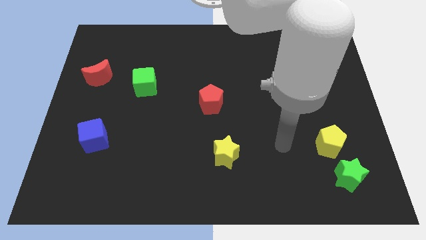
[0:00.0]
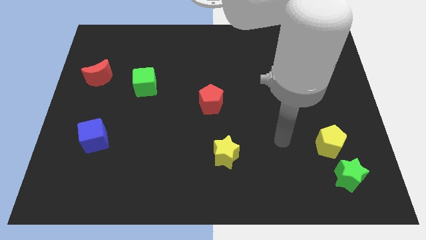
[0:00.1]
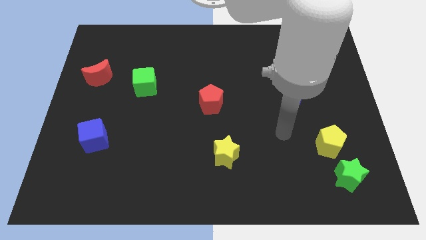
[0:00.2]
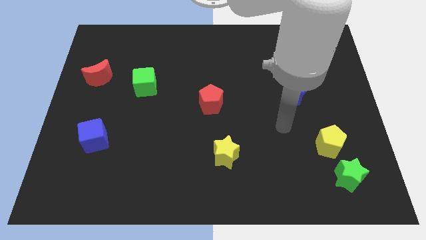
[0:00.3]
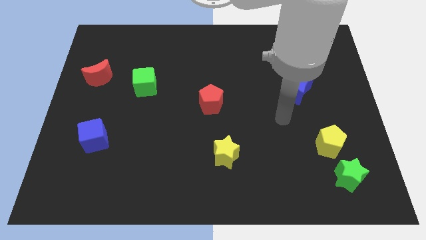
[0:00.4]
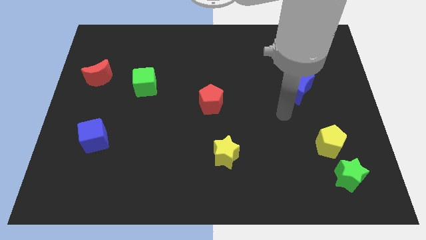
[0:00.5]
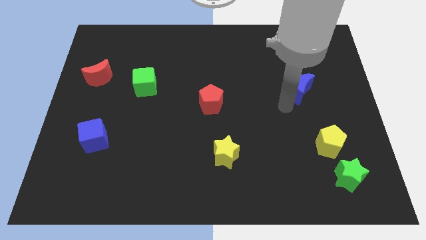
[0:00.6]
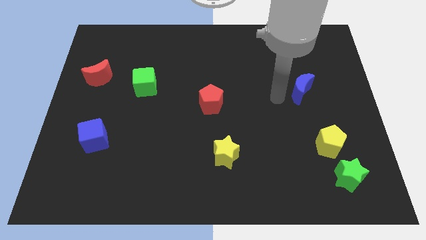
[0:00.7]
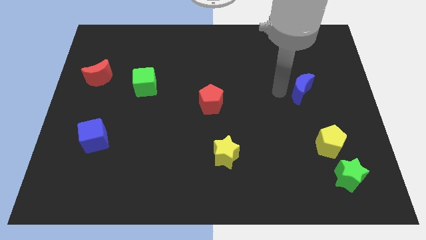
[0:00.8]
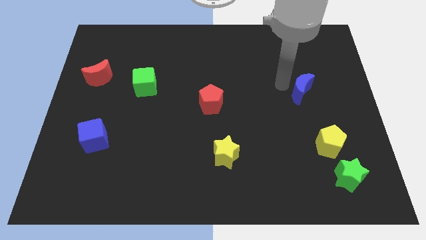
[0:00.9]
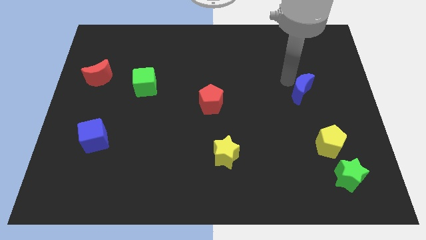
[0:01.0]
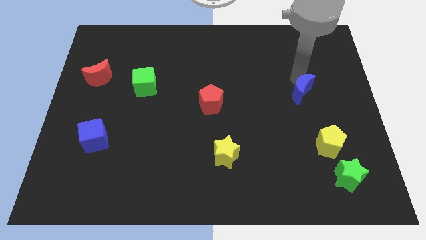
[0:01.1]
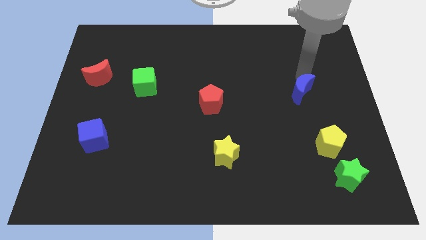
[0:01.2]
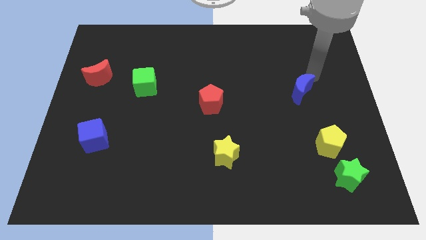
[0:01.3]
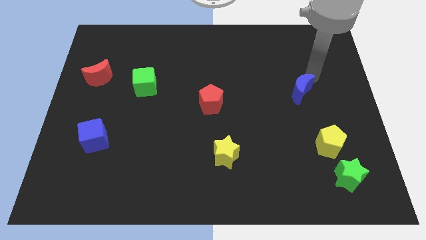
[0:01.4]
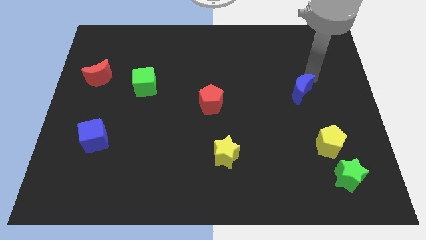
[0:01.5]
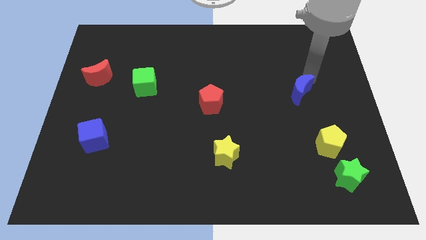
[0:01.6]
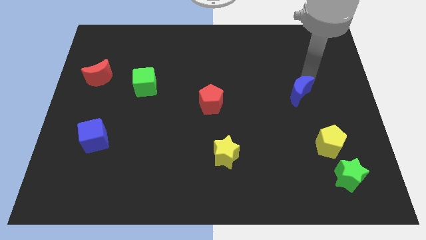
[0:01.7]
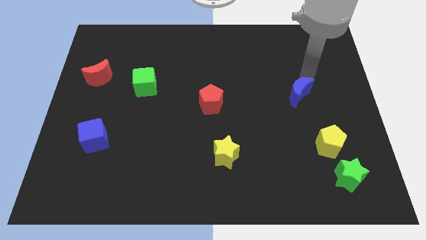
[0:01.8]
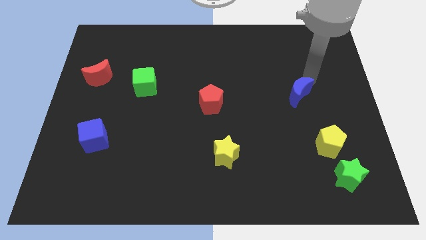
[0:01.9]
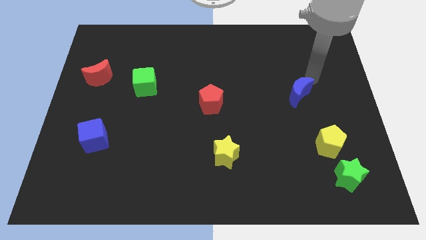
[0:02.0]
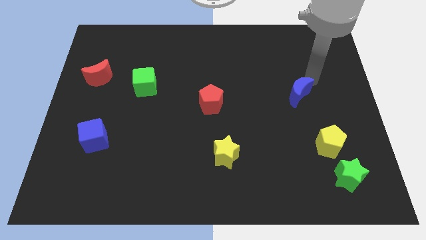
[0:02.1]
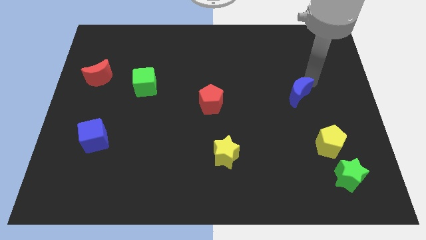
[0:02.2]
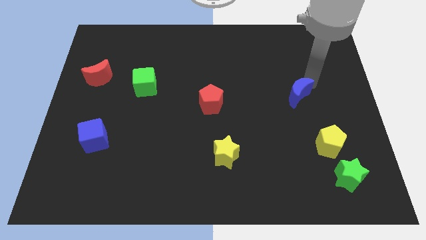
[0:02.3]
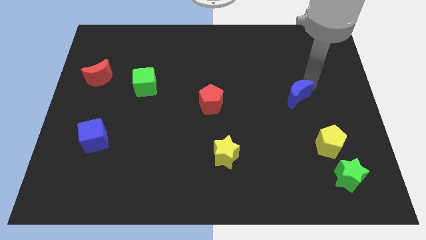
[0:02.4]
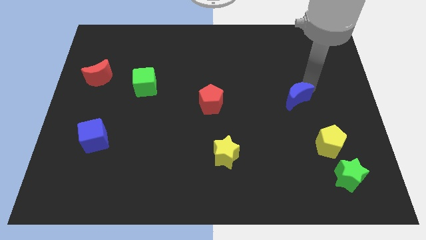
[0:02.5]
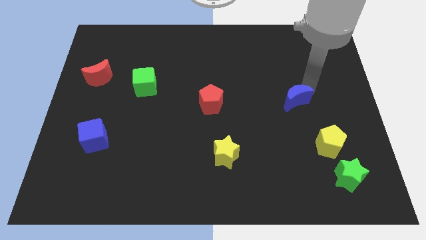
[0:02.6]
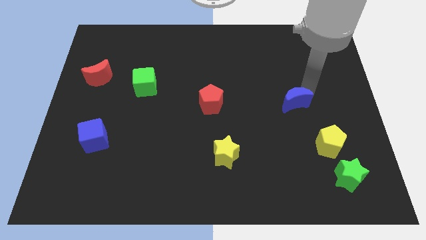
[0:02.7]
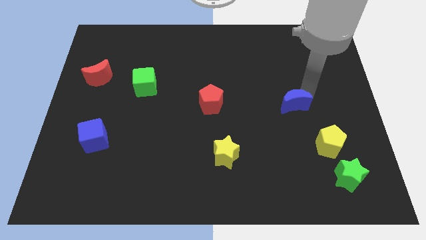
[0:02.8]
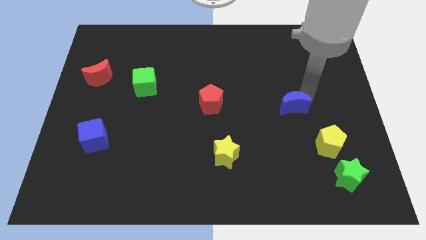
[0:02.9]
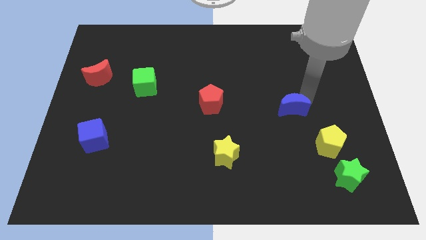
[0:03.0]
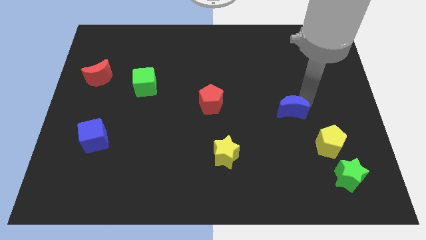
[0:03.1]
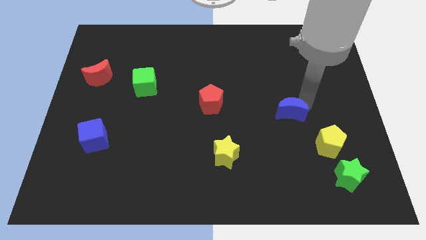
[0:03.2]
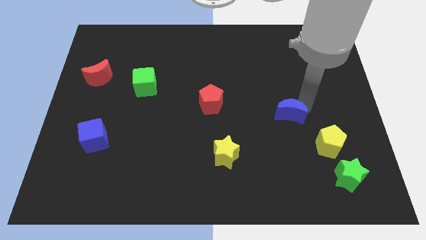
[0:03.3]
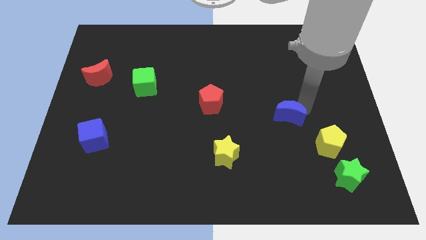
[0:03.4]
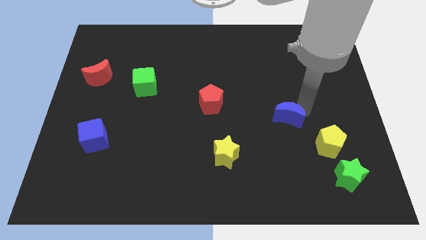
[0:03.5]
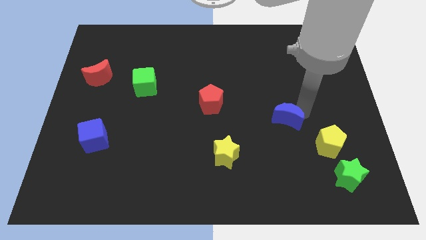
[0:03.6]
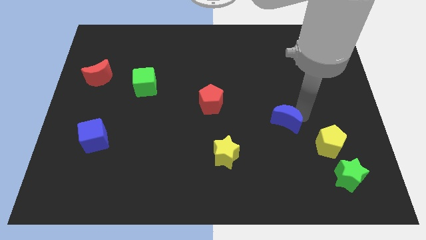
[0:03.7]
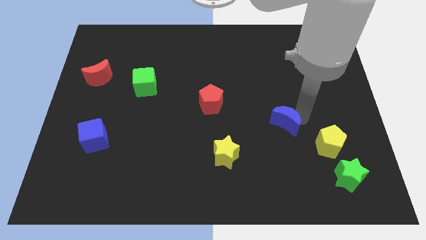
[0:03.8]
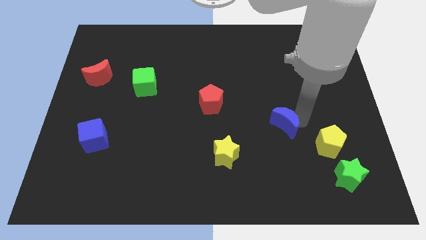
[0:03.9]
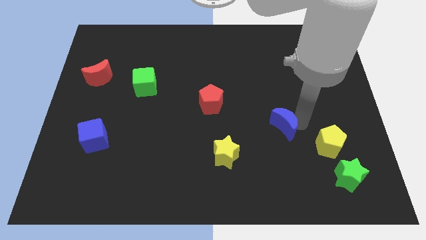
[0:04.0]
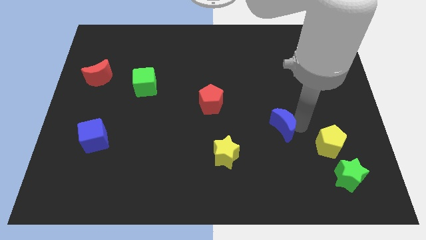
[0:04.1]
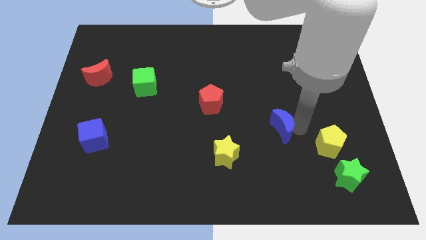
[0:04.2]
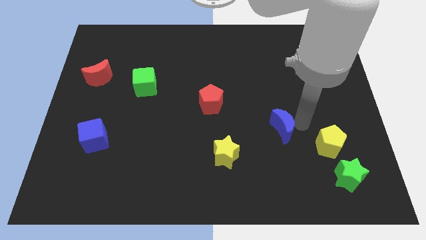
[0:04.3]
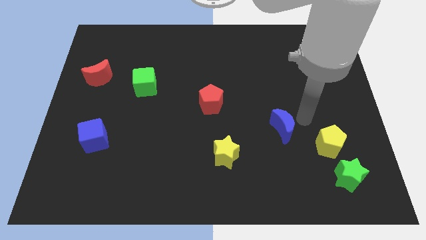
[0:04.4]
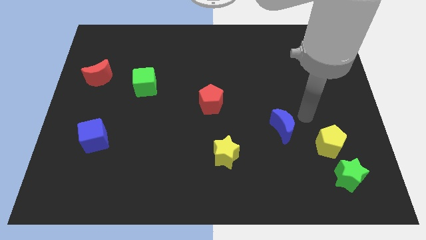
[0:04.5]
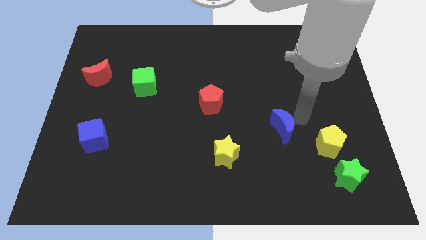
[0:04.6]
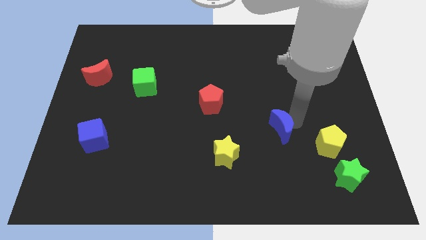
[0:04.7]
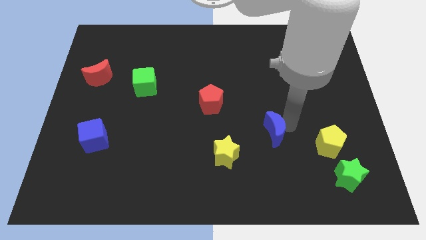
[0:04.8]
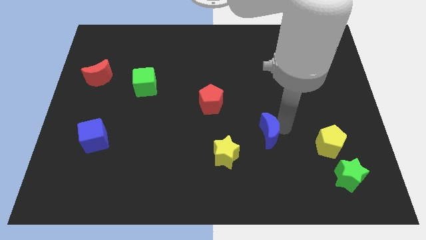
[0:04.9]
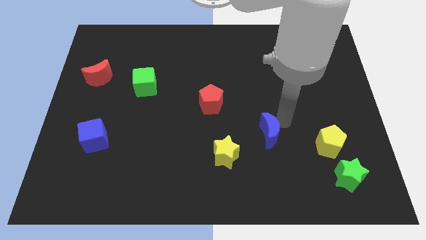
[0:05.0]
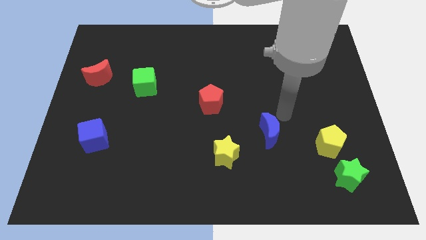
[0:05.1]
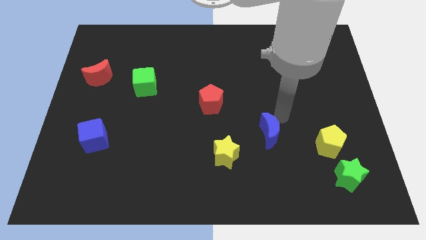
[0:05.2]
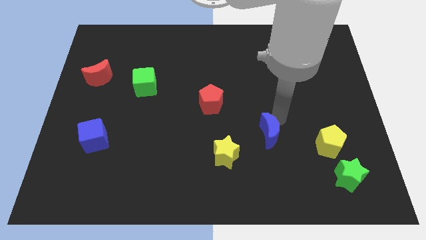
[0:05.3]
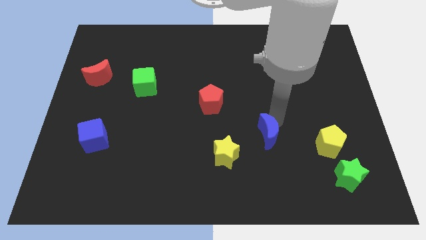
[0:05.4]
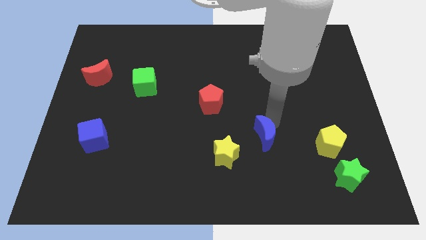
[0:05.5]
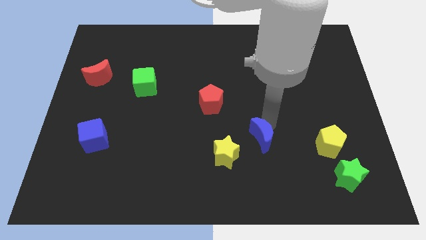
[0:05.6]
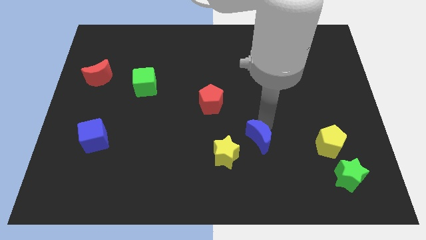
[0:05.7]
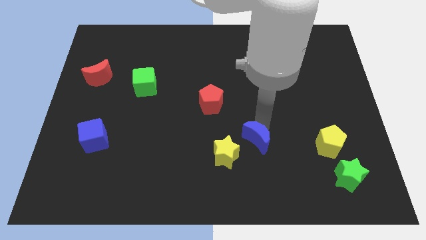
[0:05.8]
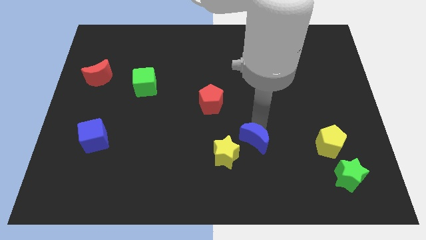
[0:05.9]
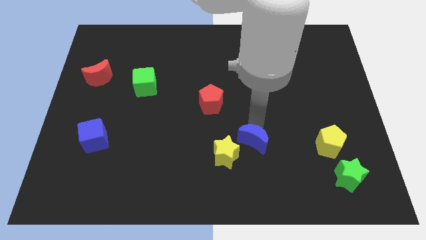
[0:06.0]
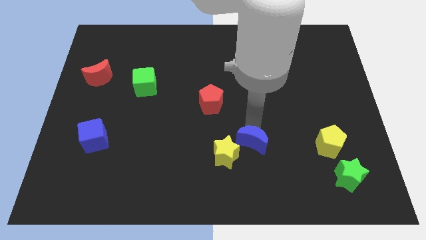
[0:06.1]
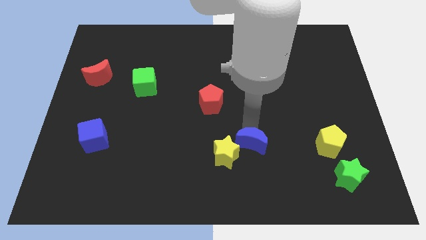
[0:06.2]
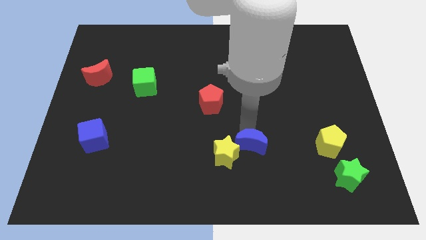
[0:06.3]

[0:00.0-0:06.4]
slide the blue moon down and to the left

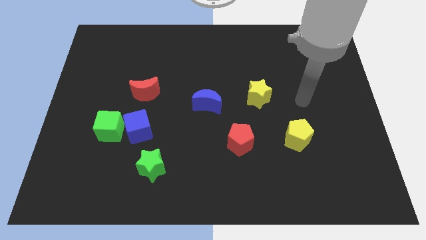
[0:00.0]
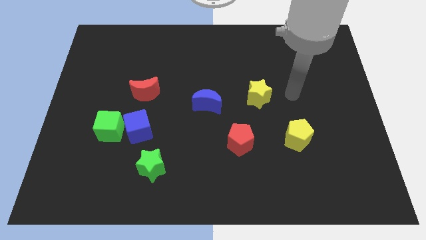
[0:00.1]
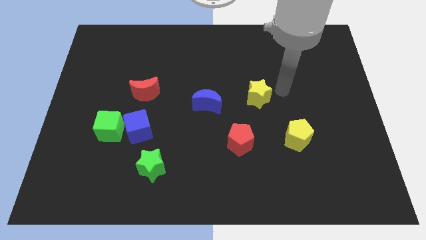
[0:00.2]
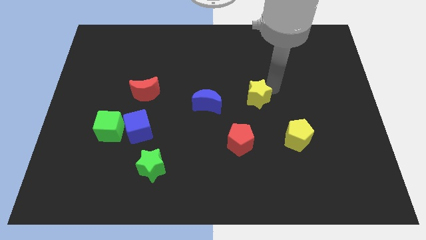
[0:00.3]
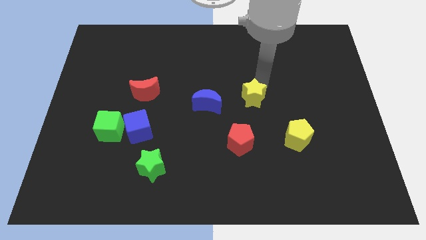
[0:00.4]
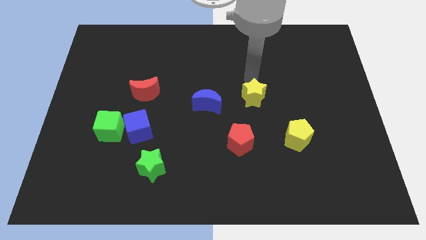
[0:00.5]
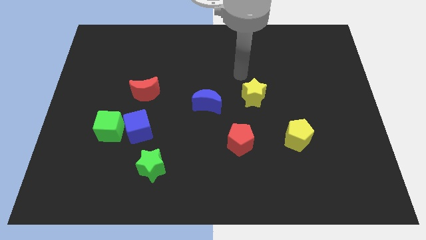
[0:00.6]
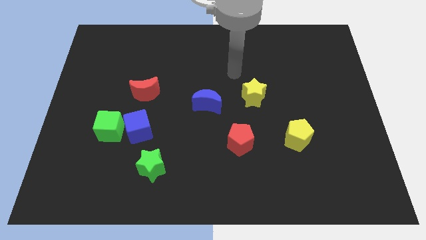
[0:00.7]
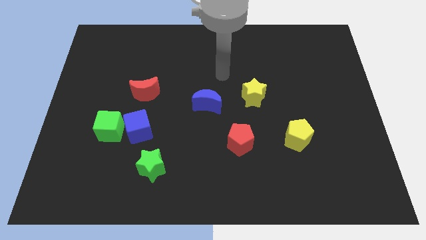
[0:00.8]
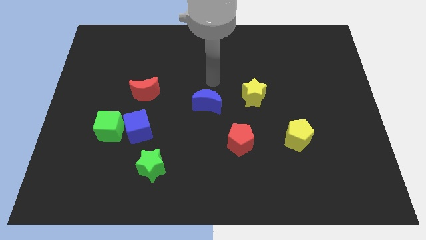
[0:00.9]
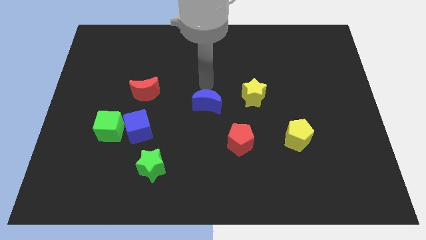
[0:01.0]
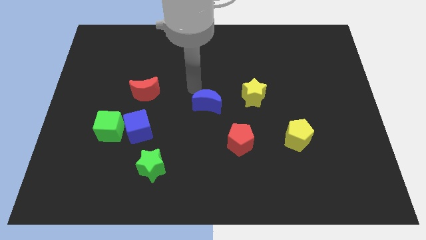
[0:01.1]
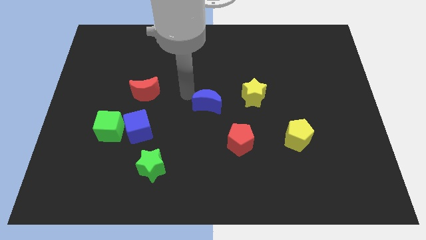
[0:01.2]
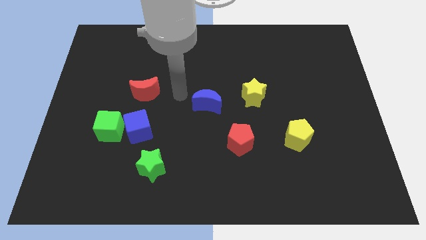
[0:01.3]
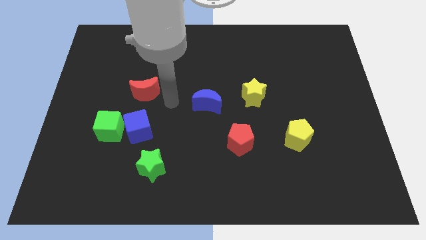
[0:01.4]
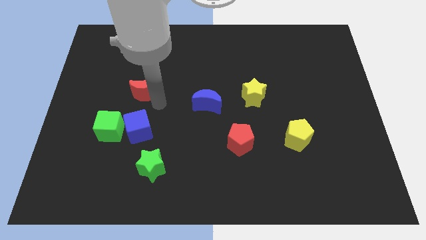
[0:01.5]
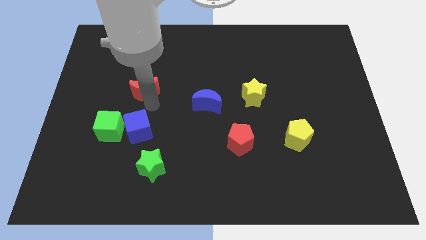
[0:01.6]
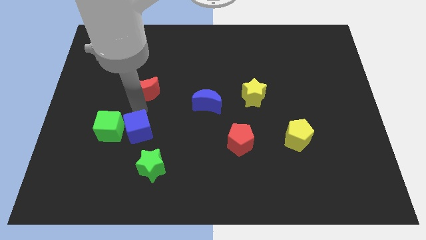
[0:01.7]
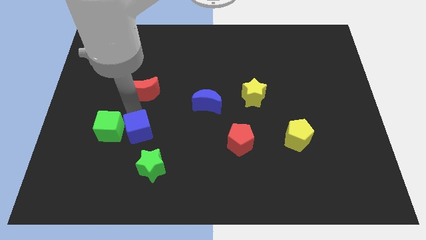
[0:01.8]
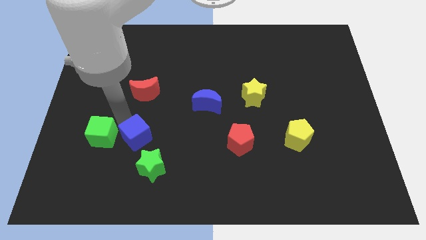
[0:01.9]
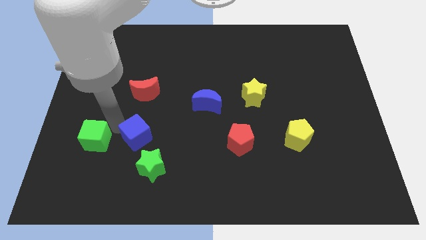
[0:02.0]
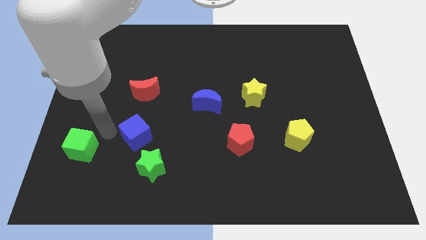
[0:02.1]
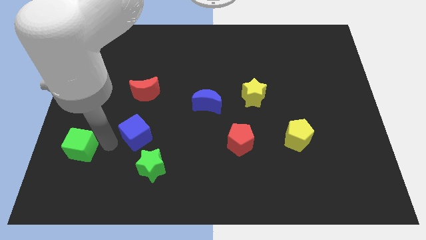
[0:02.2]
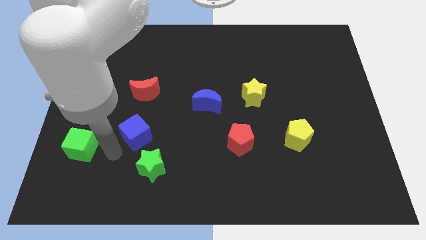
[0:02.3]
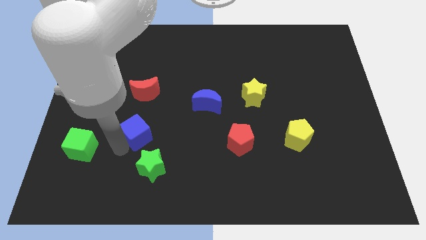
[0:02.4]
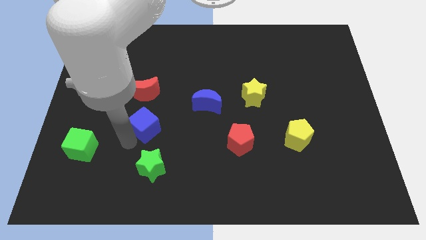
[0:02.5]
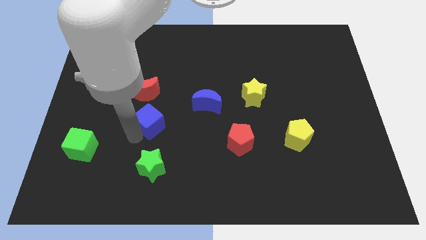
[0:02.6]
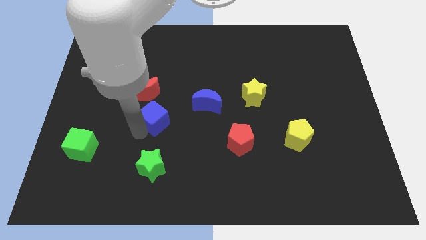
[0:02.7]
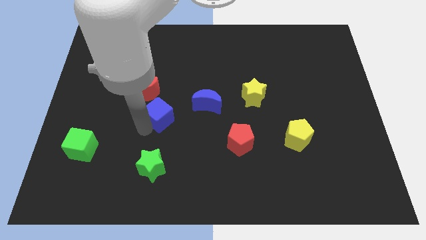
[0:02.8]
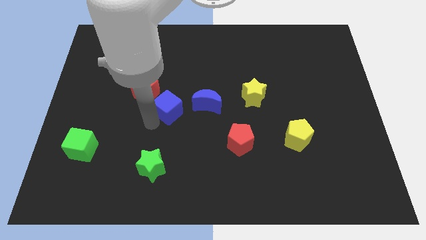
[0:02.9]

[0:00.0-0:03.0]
slightly push the blue cube up and right diagonally
